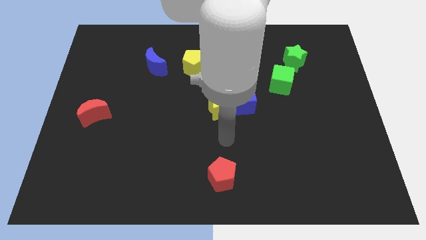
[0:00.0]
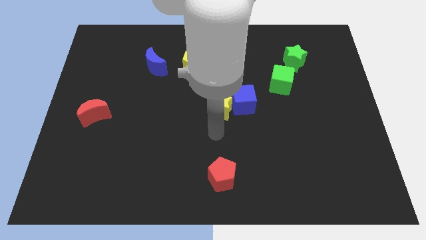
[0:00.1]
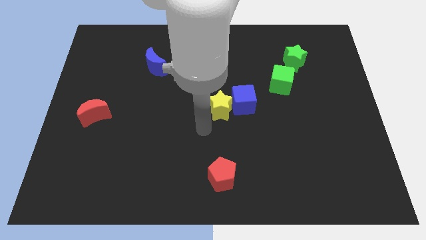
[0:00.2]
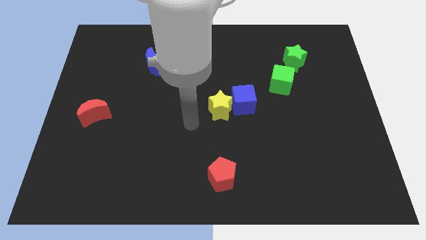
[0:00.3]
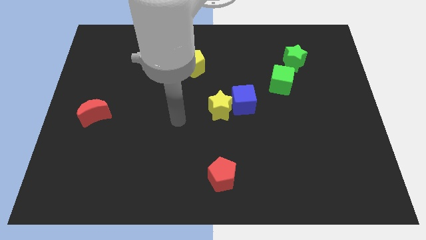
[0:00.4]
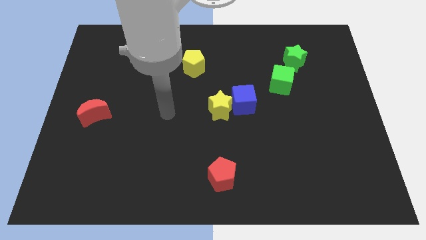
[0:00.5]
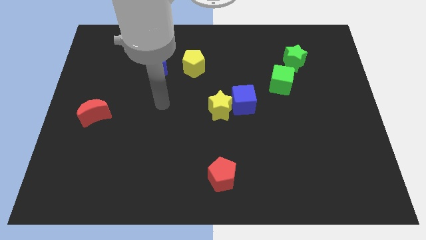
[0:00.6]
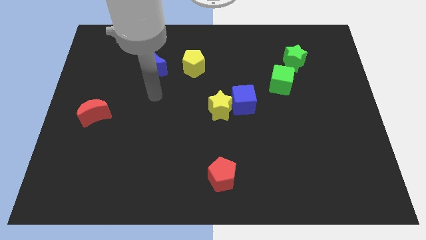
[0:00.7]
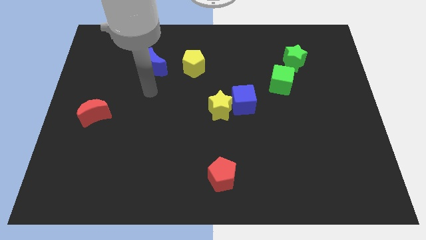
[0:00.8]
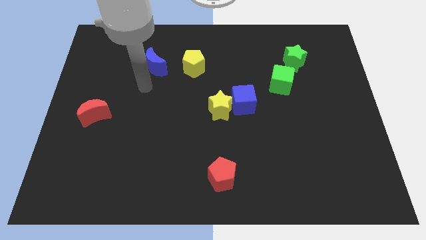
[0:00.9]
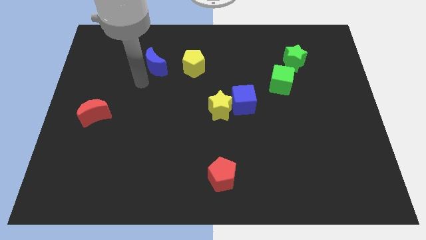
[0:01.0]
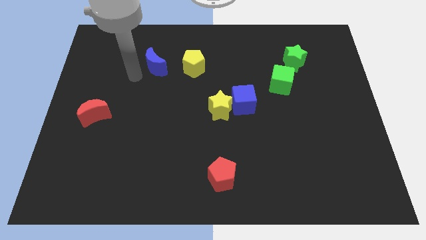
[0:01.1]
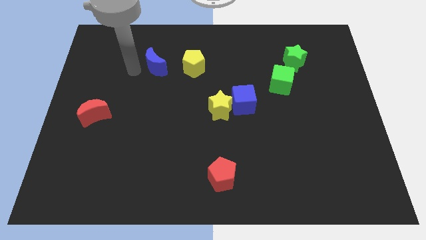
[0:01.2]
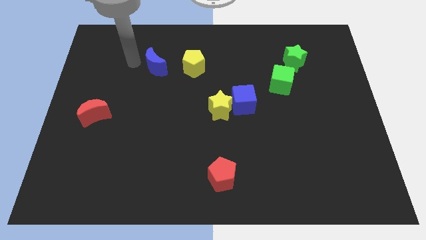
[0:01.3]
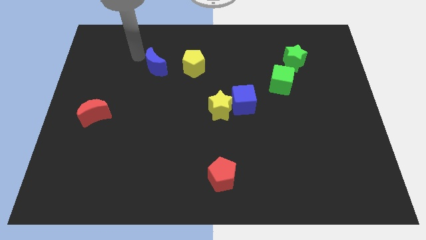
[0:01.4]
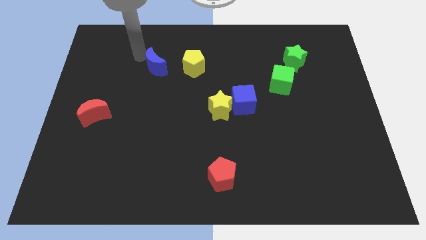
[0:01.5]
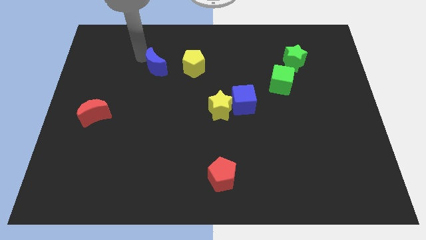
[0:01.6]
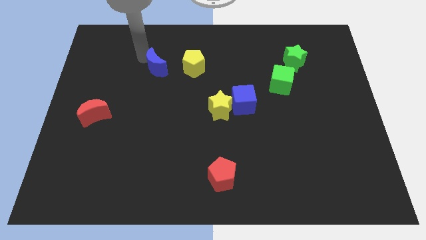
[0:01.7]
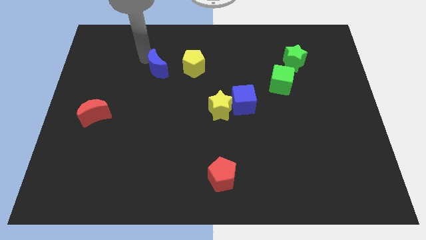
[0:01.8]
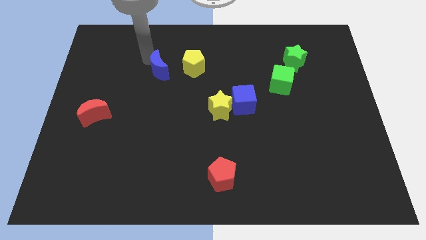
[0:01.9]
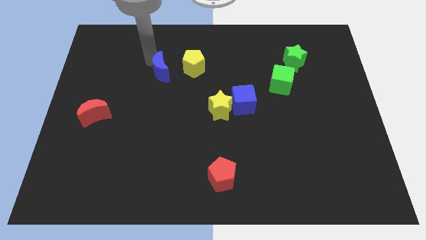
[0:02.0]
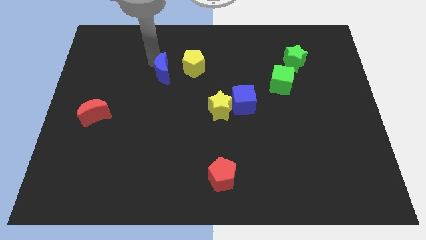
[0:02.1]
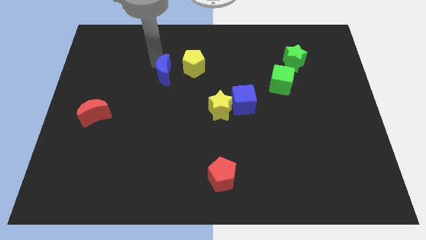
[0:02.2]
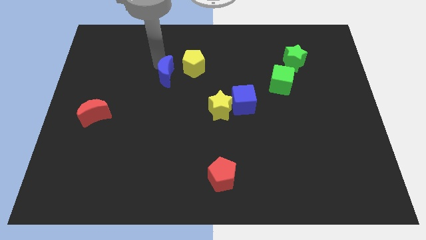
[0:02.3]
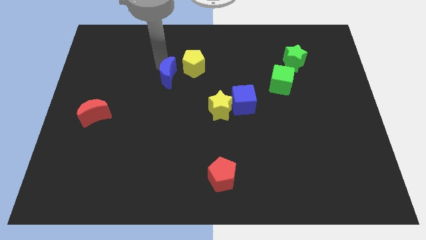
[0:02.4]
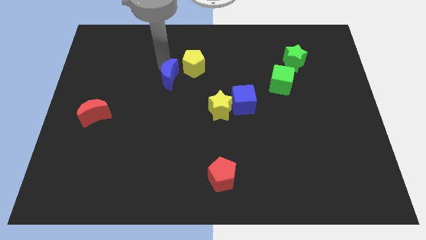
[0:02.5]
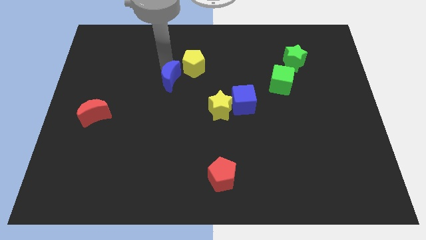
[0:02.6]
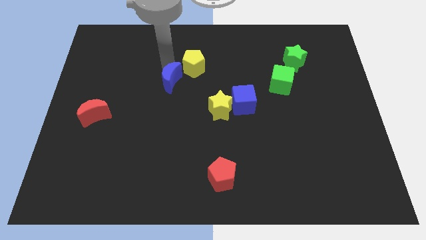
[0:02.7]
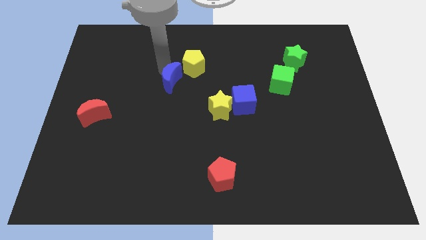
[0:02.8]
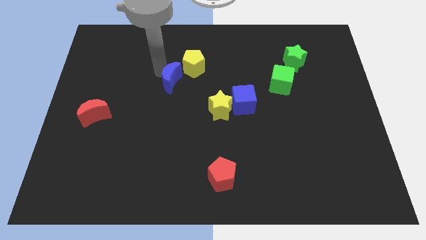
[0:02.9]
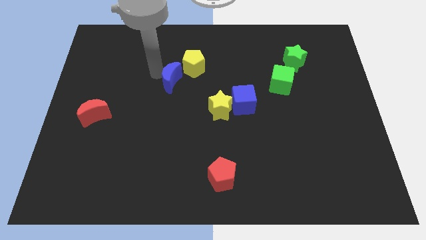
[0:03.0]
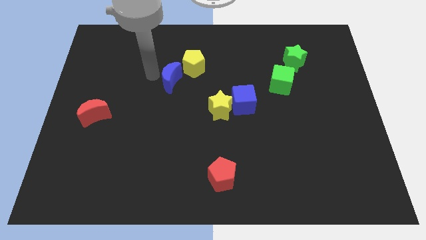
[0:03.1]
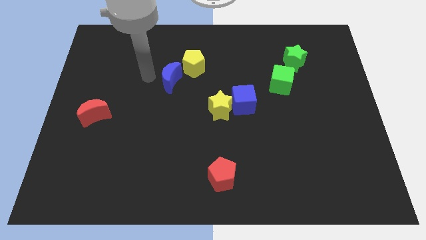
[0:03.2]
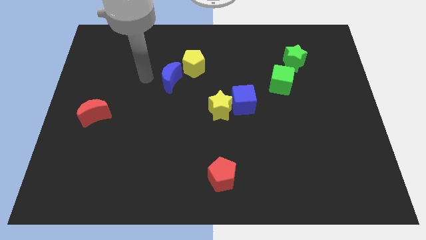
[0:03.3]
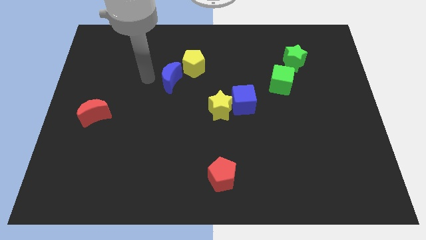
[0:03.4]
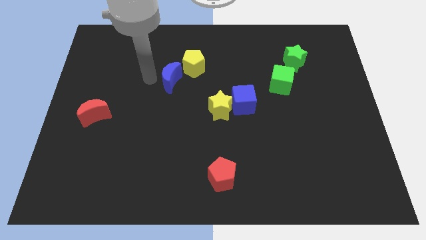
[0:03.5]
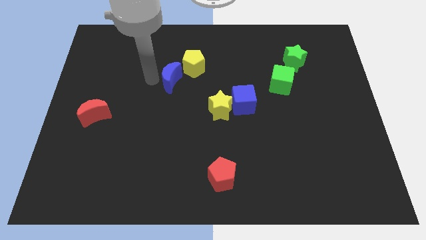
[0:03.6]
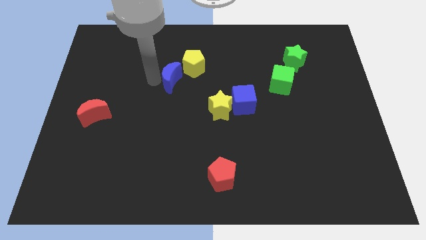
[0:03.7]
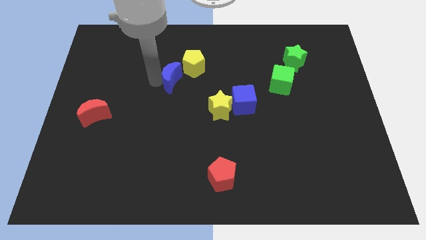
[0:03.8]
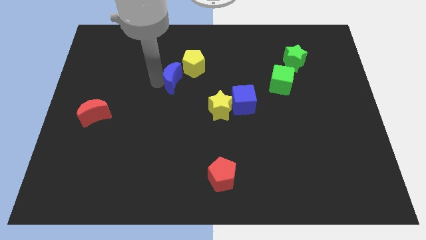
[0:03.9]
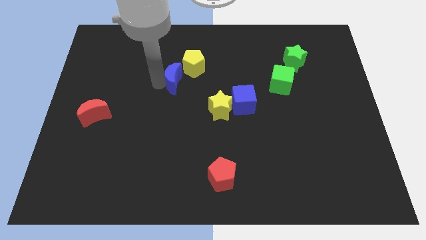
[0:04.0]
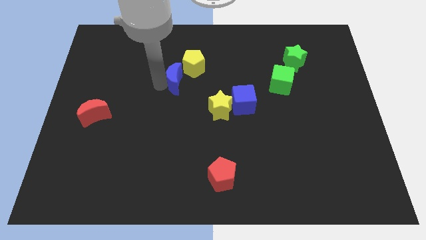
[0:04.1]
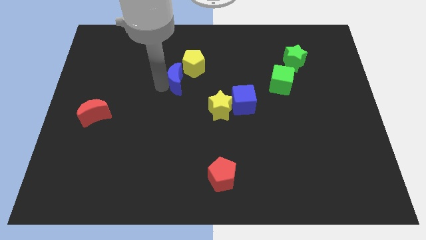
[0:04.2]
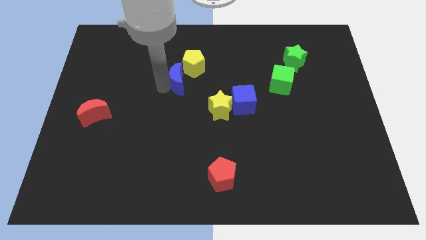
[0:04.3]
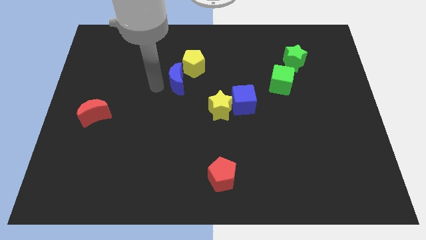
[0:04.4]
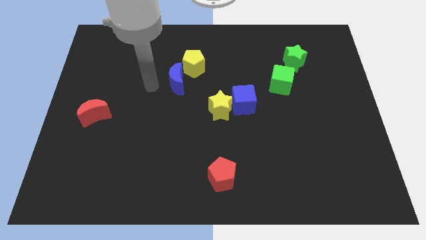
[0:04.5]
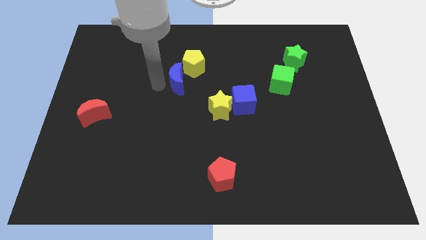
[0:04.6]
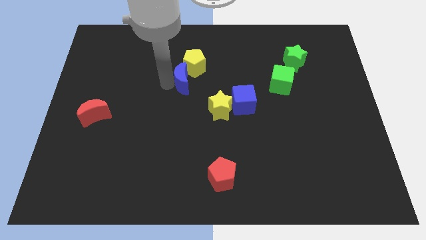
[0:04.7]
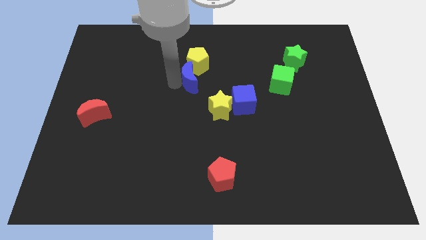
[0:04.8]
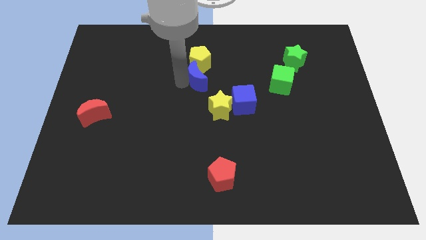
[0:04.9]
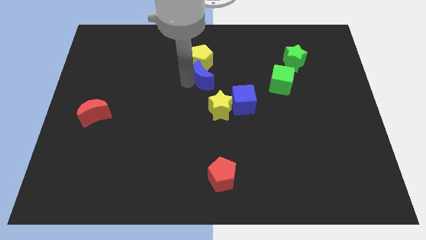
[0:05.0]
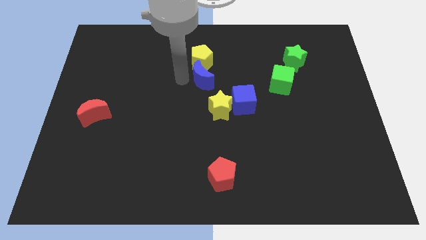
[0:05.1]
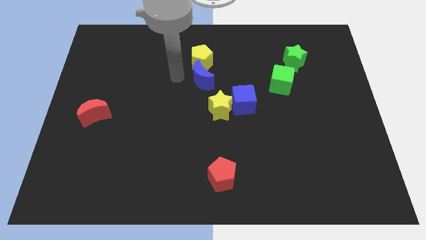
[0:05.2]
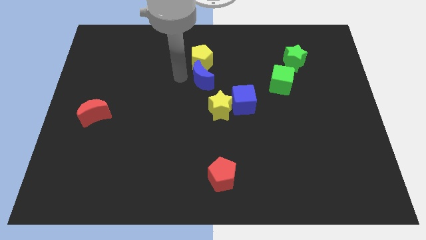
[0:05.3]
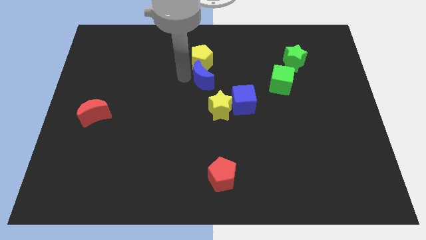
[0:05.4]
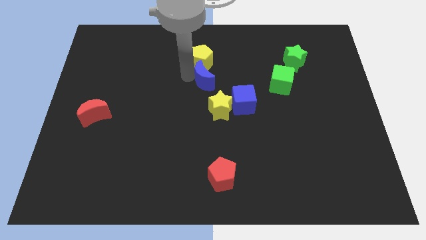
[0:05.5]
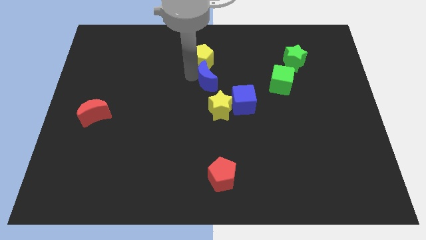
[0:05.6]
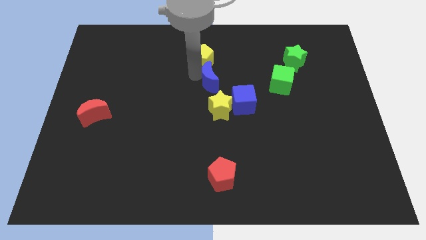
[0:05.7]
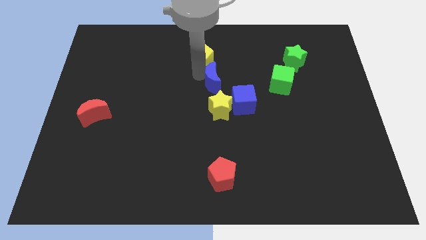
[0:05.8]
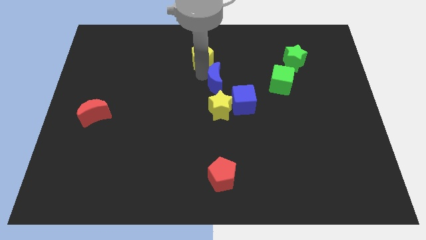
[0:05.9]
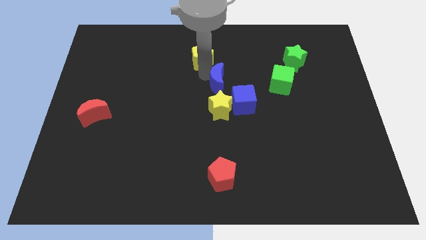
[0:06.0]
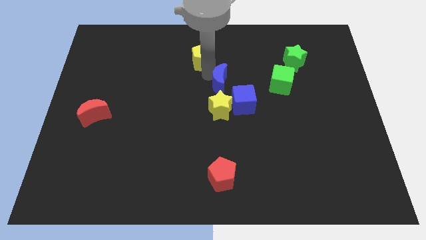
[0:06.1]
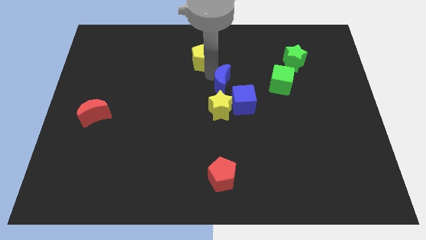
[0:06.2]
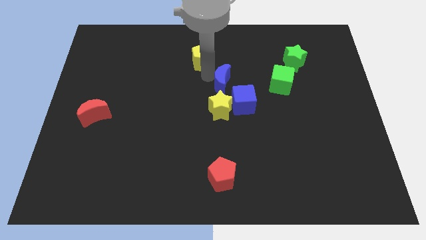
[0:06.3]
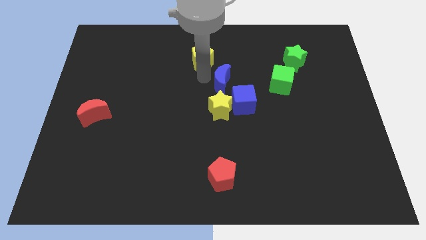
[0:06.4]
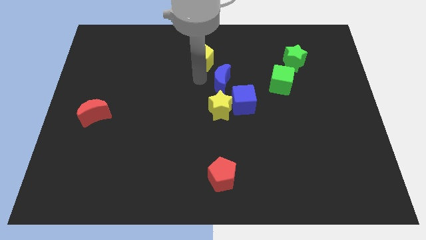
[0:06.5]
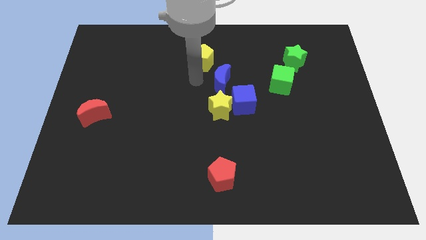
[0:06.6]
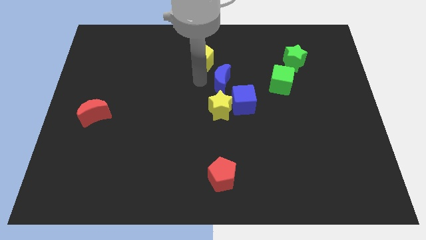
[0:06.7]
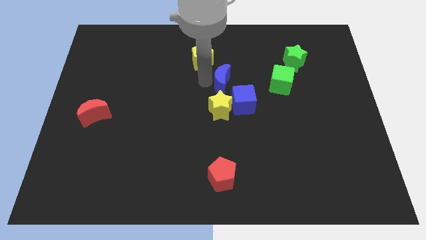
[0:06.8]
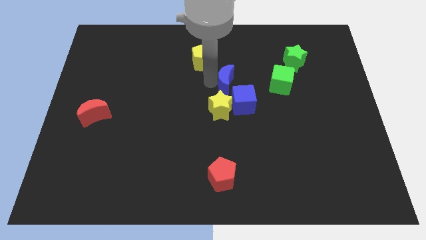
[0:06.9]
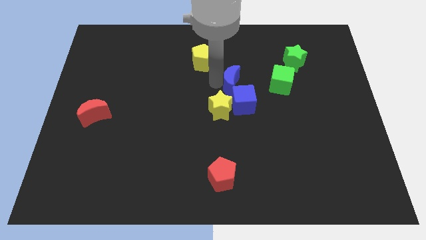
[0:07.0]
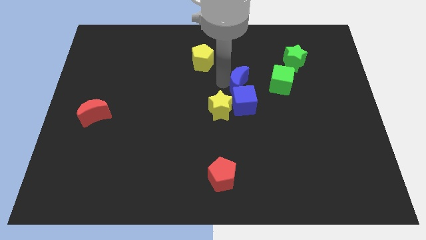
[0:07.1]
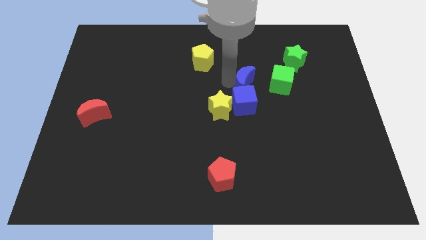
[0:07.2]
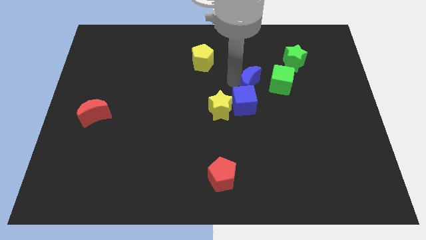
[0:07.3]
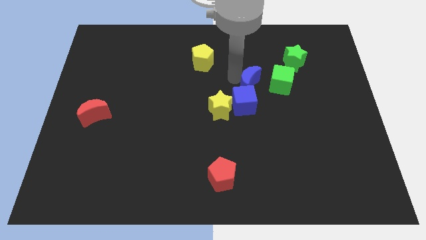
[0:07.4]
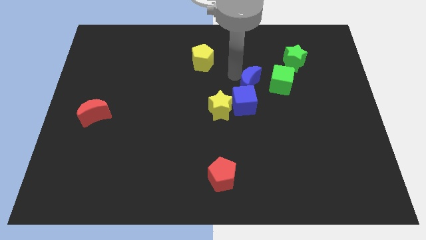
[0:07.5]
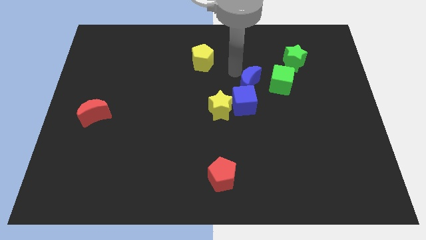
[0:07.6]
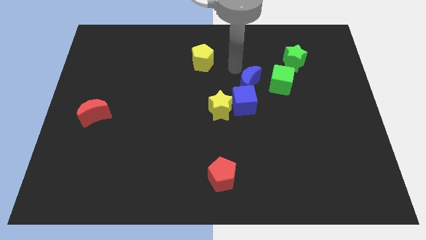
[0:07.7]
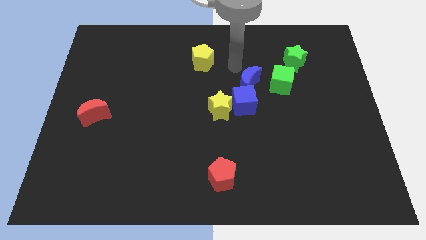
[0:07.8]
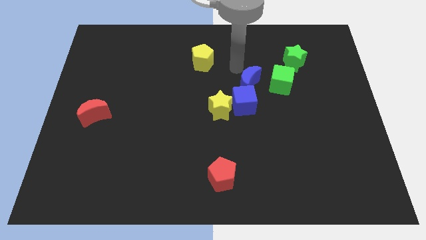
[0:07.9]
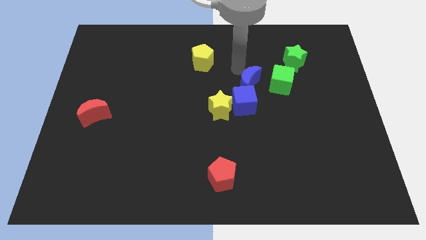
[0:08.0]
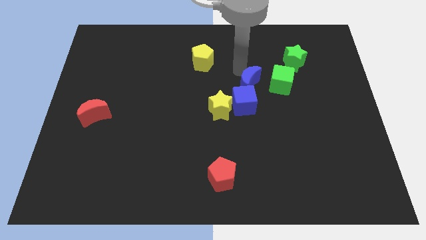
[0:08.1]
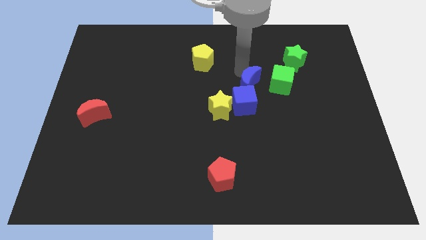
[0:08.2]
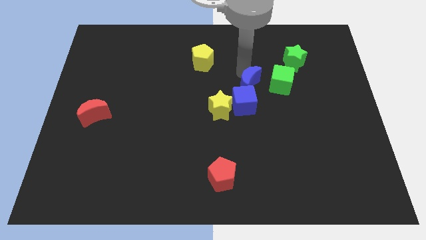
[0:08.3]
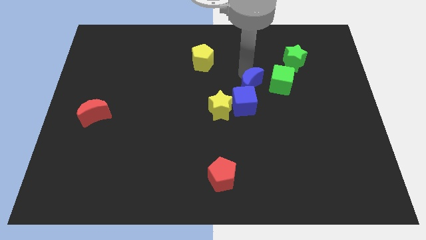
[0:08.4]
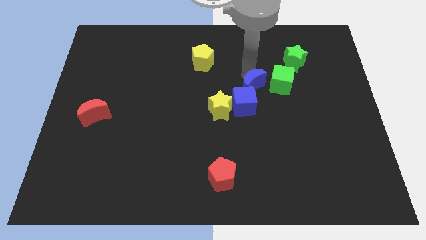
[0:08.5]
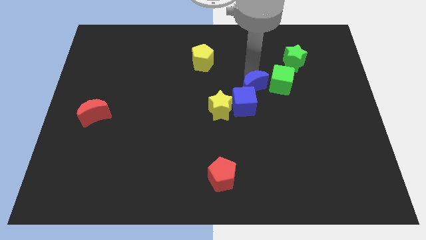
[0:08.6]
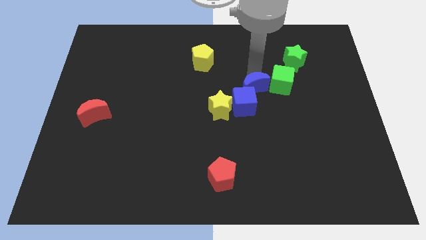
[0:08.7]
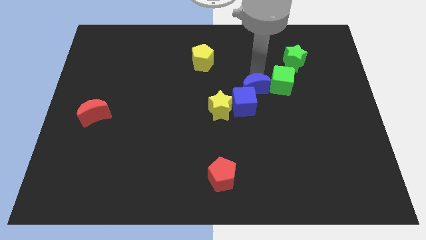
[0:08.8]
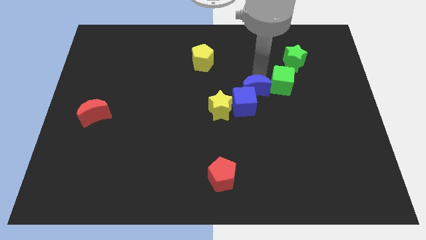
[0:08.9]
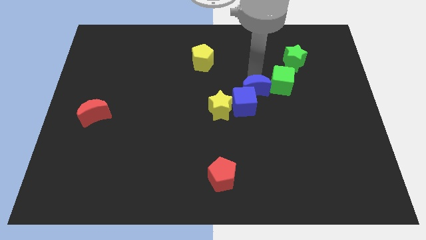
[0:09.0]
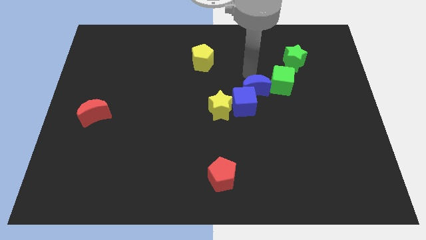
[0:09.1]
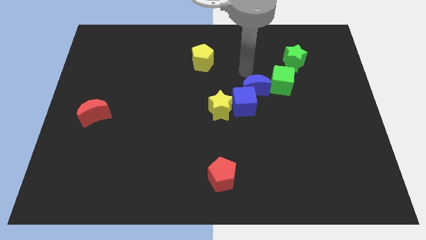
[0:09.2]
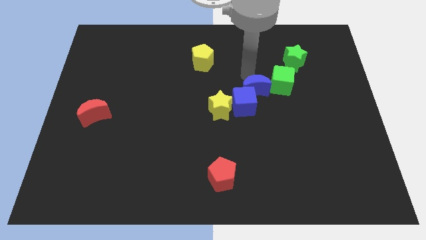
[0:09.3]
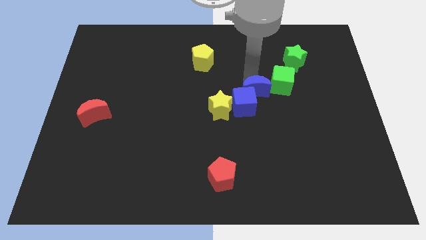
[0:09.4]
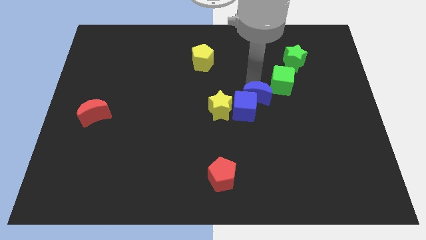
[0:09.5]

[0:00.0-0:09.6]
move the blue moon to the right of the yellow star
